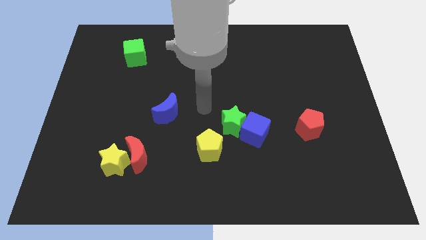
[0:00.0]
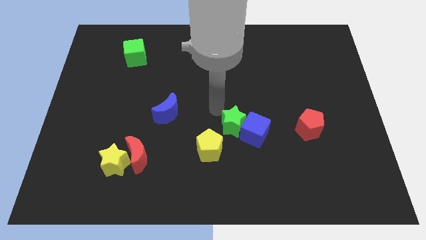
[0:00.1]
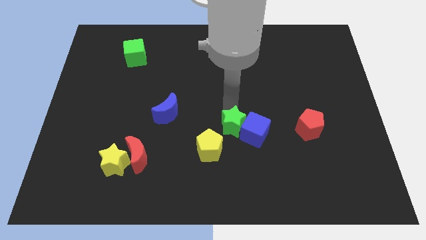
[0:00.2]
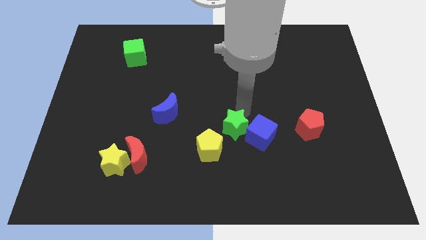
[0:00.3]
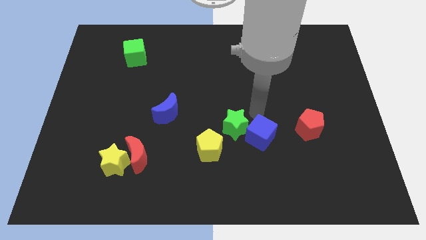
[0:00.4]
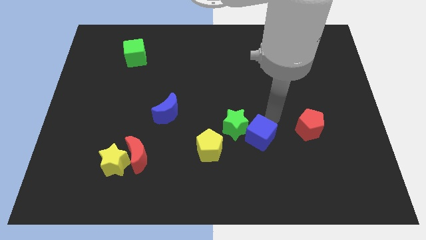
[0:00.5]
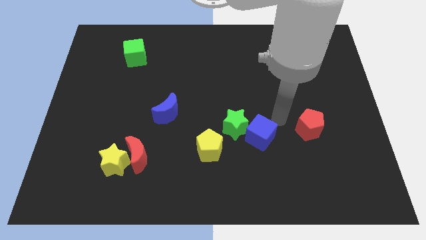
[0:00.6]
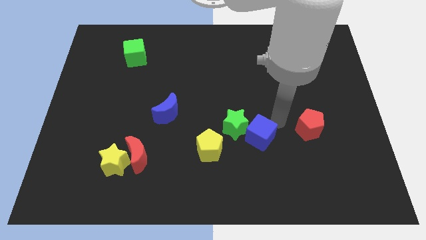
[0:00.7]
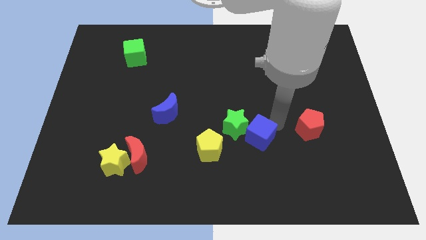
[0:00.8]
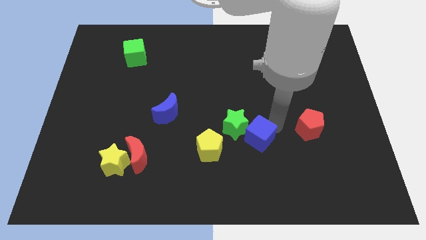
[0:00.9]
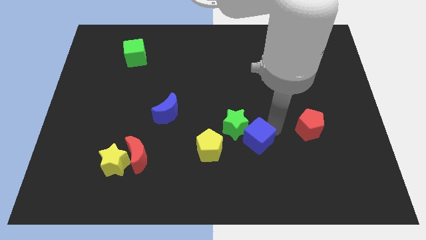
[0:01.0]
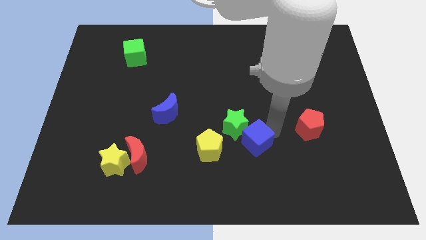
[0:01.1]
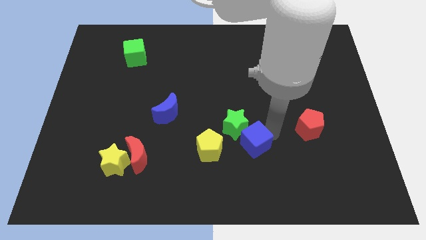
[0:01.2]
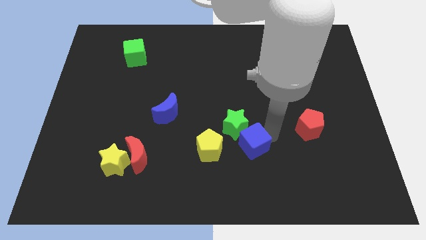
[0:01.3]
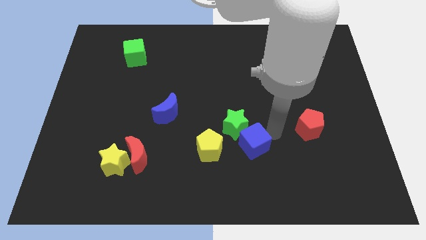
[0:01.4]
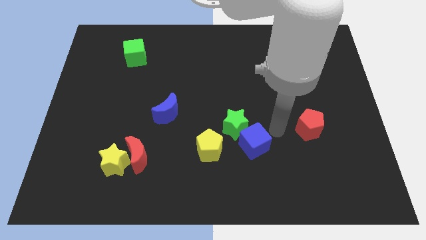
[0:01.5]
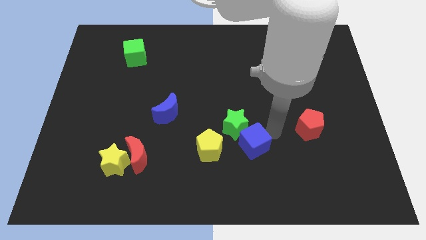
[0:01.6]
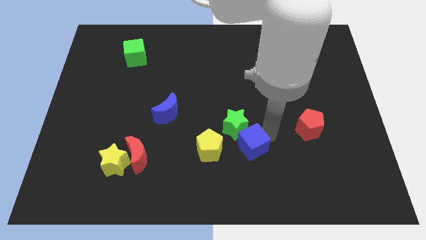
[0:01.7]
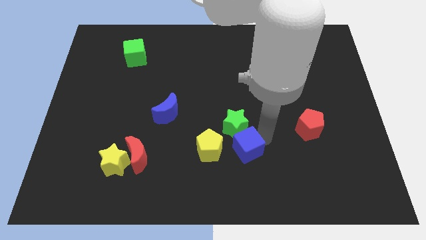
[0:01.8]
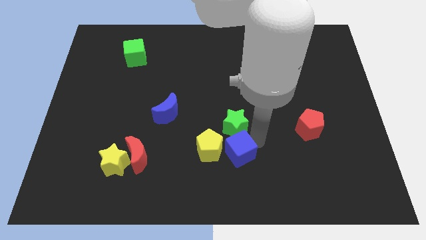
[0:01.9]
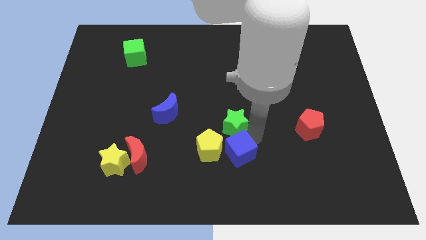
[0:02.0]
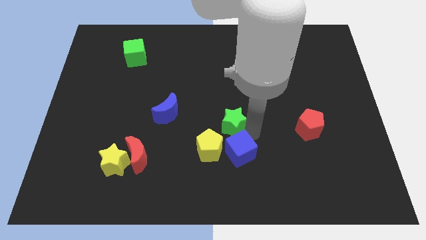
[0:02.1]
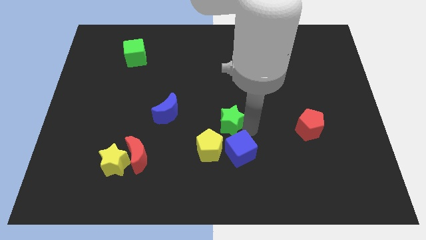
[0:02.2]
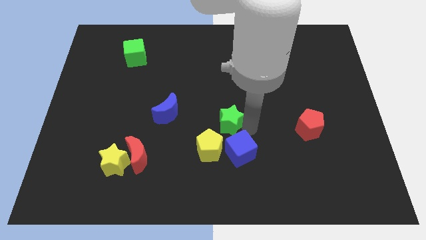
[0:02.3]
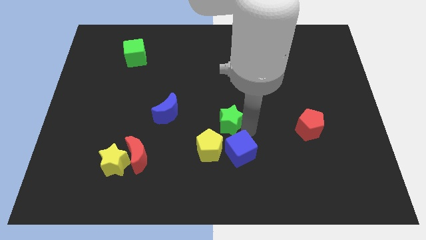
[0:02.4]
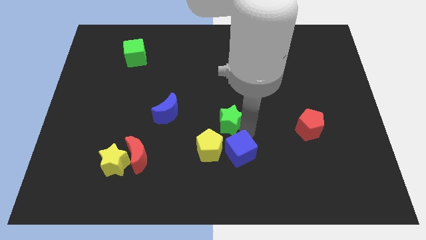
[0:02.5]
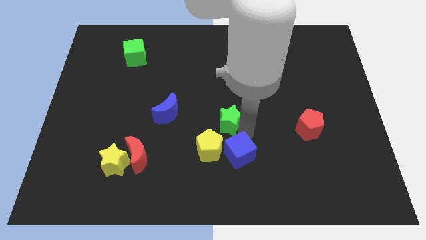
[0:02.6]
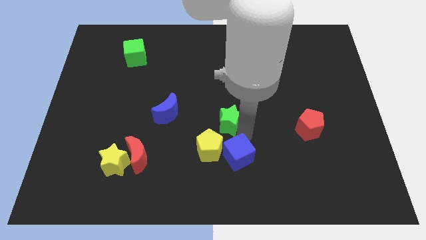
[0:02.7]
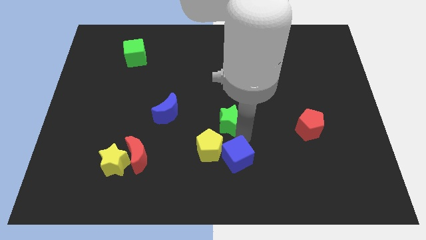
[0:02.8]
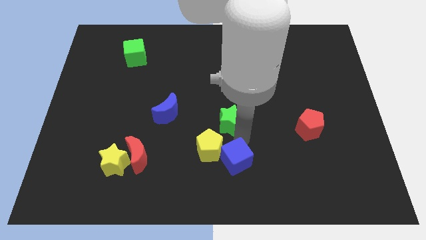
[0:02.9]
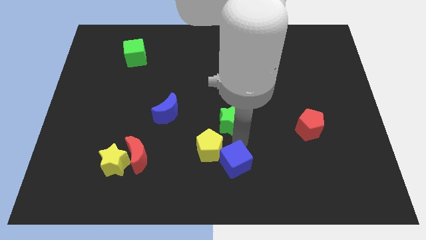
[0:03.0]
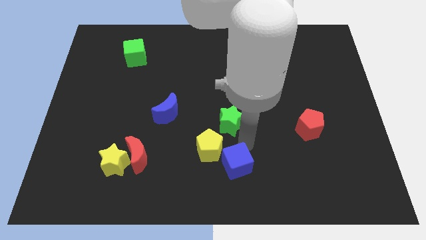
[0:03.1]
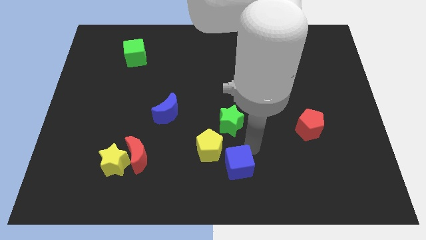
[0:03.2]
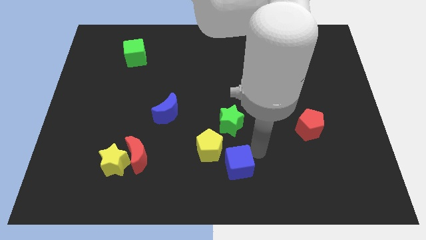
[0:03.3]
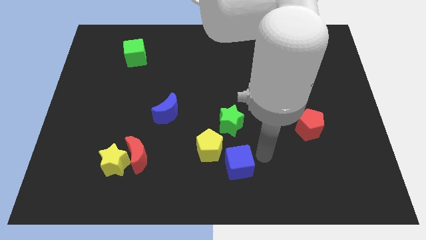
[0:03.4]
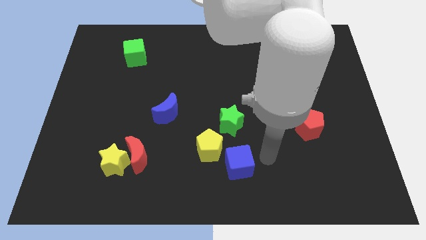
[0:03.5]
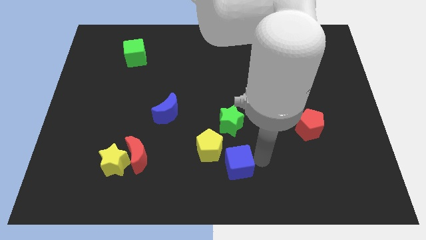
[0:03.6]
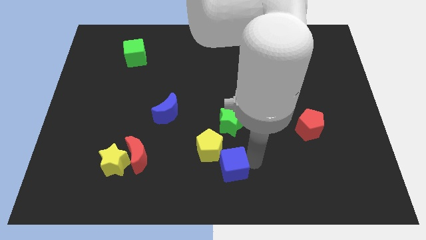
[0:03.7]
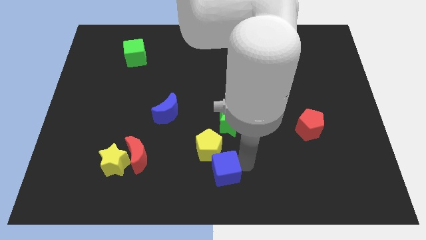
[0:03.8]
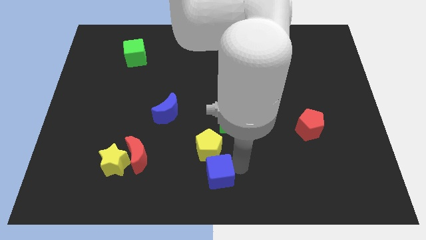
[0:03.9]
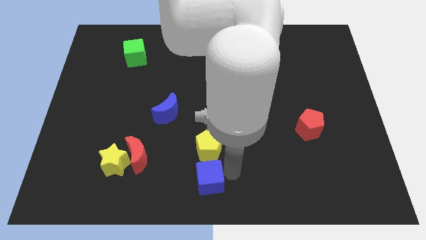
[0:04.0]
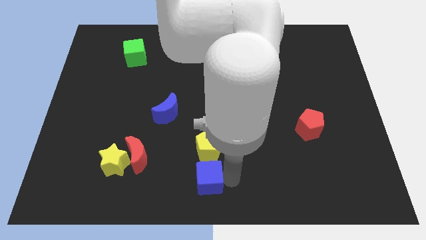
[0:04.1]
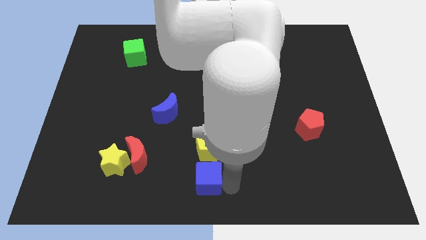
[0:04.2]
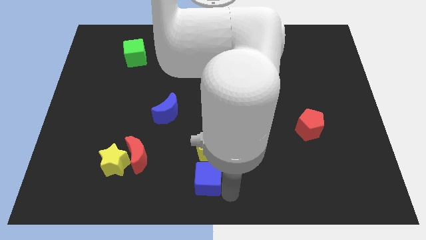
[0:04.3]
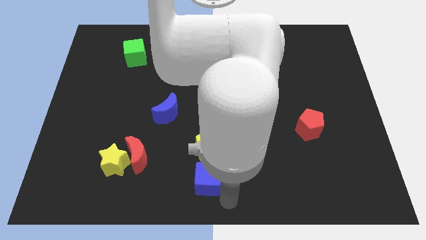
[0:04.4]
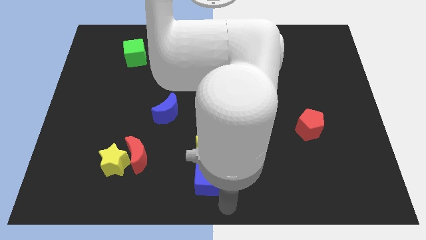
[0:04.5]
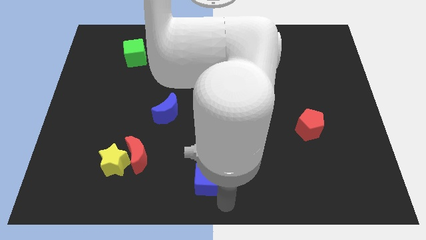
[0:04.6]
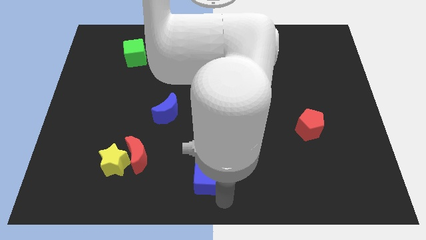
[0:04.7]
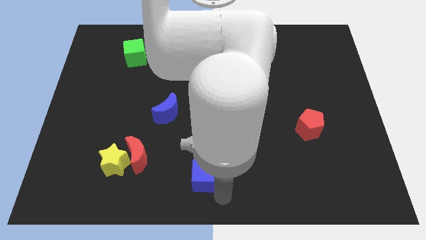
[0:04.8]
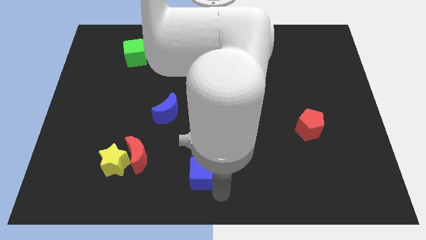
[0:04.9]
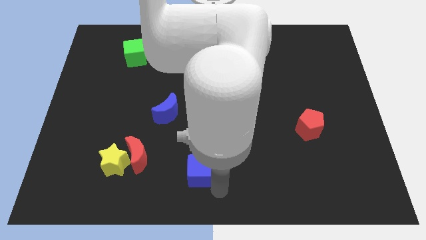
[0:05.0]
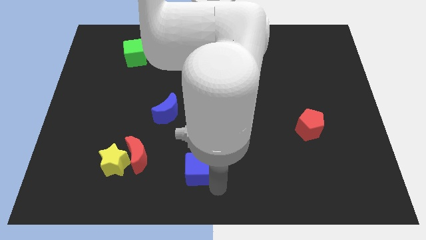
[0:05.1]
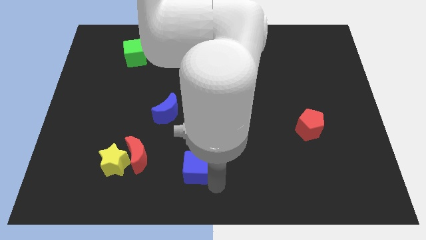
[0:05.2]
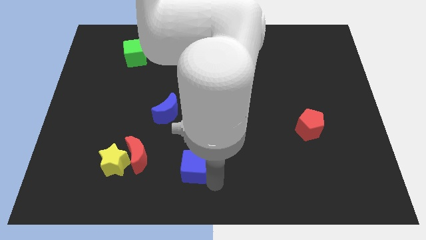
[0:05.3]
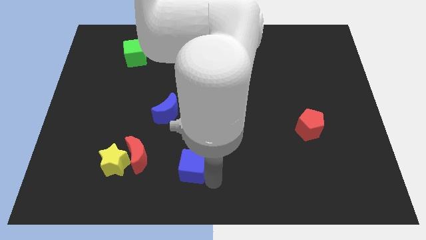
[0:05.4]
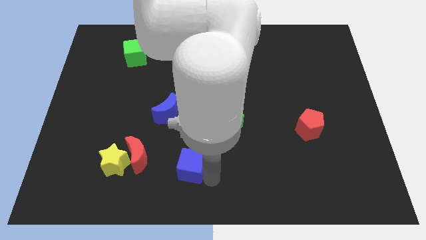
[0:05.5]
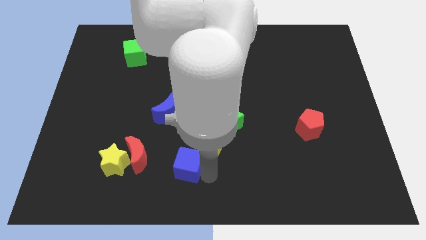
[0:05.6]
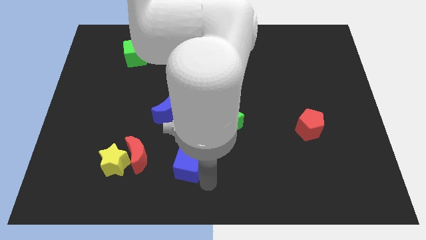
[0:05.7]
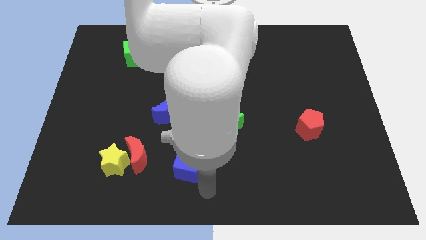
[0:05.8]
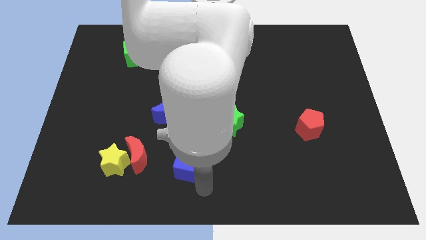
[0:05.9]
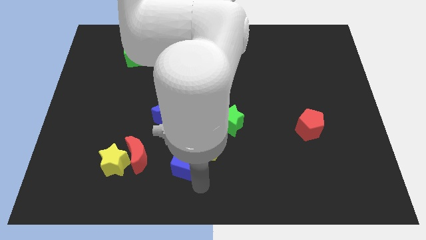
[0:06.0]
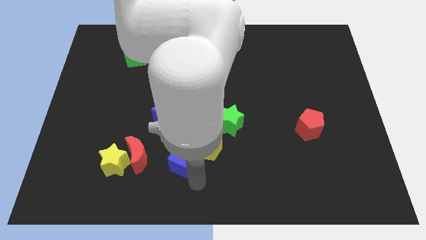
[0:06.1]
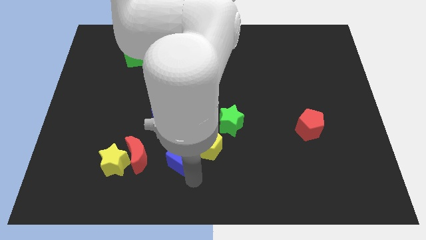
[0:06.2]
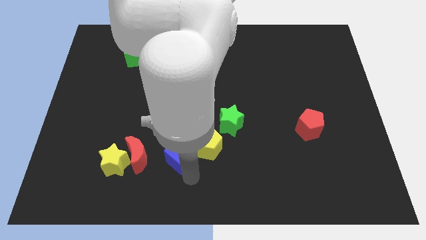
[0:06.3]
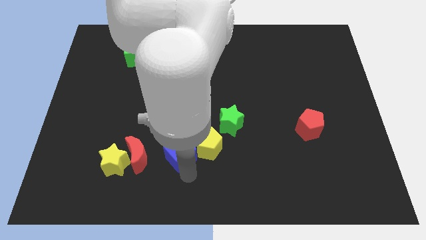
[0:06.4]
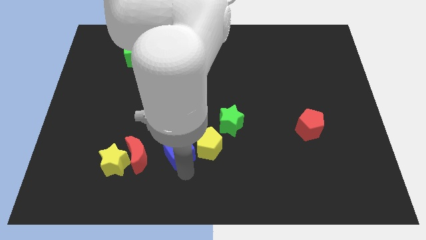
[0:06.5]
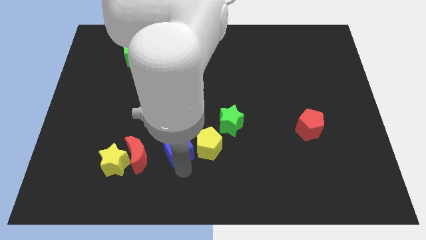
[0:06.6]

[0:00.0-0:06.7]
slide the blue cube diagonally up and to the right of the red moon

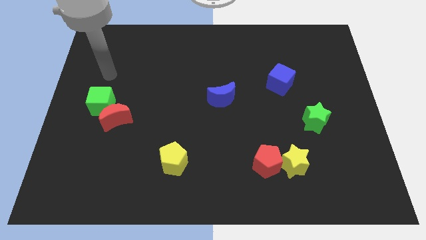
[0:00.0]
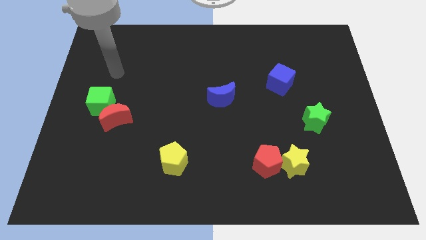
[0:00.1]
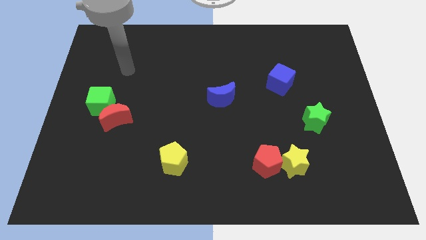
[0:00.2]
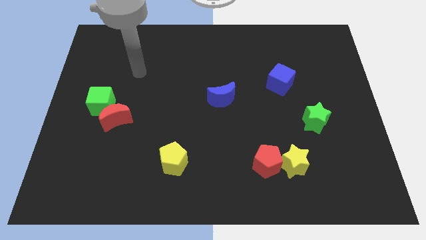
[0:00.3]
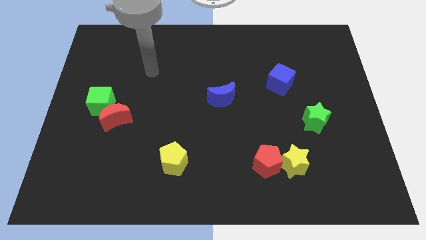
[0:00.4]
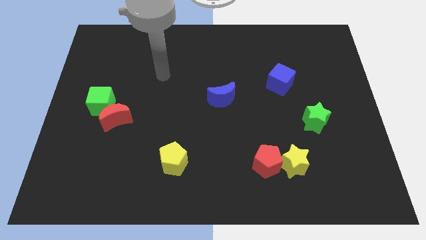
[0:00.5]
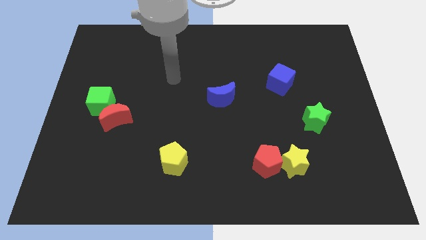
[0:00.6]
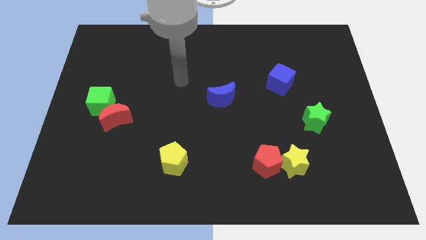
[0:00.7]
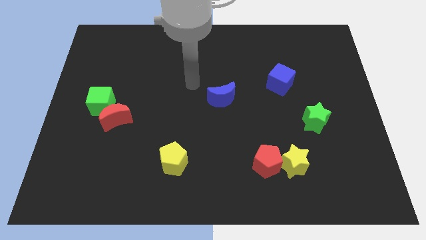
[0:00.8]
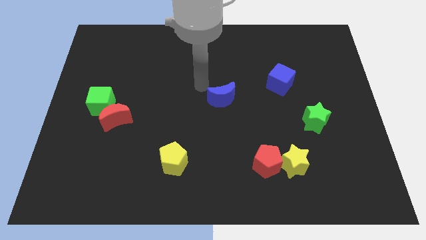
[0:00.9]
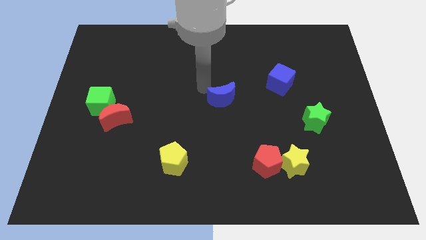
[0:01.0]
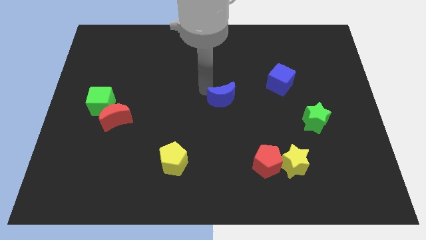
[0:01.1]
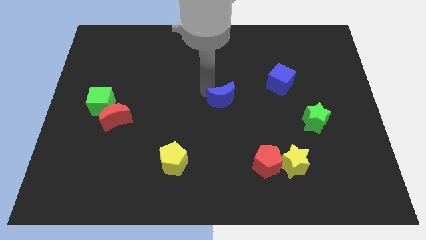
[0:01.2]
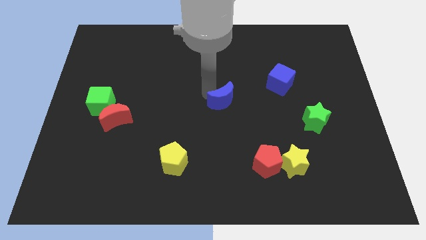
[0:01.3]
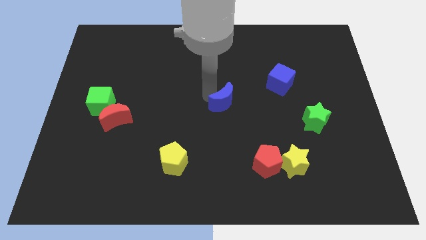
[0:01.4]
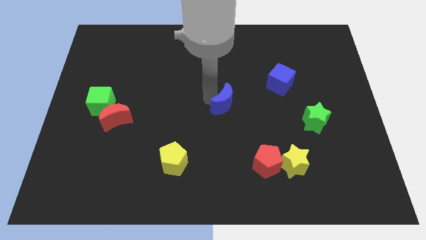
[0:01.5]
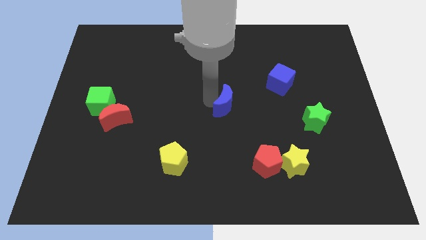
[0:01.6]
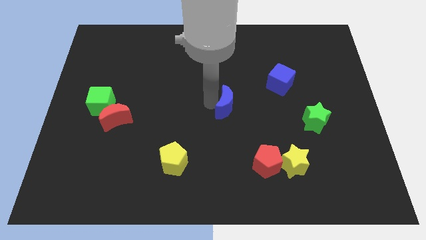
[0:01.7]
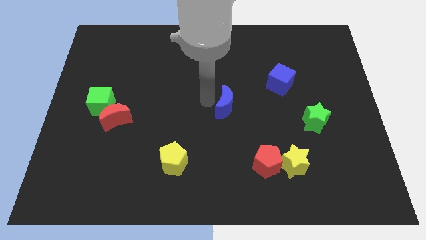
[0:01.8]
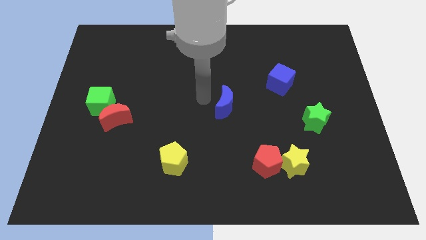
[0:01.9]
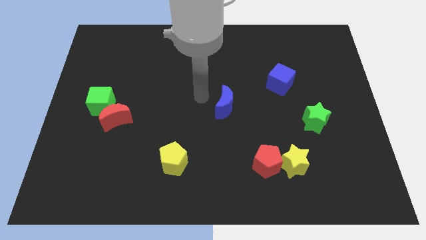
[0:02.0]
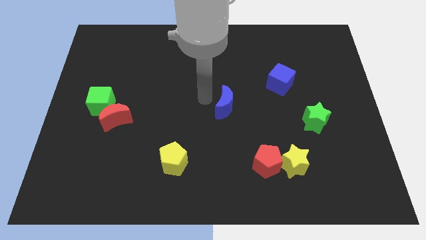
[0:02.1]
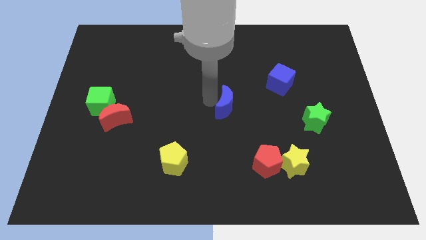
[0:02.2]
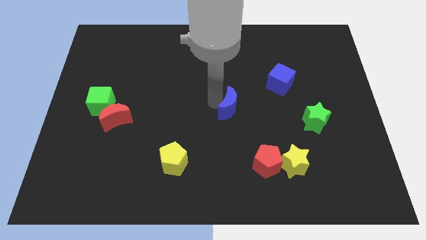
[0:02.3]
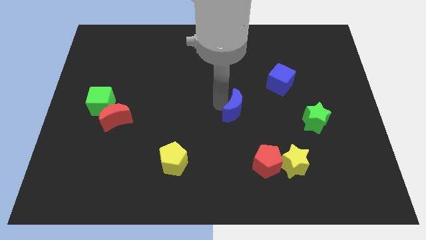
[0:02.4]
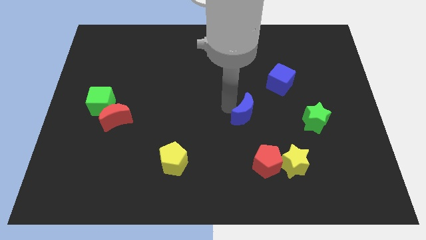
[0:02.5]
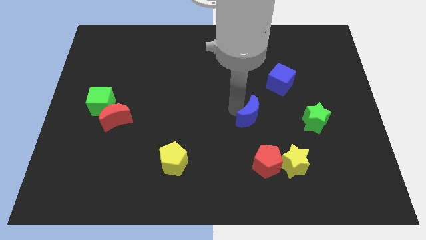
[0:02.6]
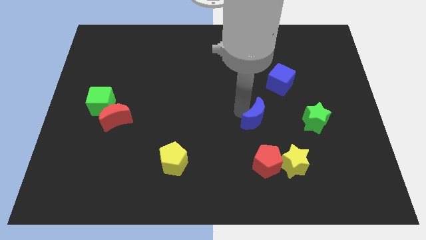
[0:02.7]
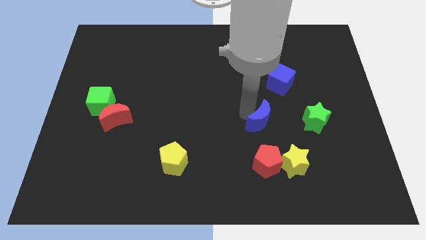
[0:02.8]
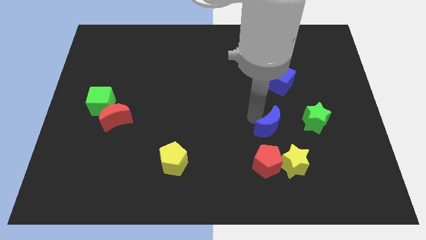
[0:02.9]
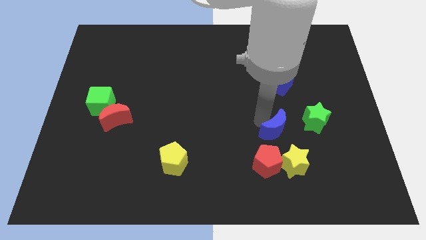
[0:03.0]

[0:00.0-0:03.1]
slide the blue moon to the top right side of the red pentagon
